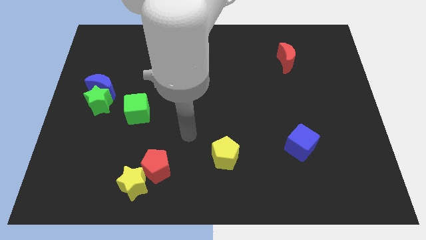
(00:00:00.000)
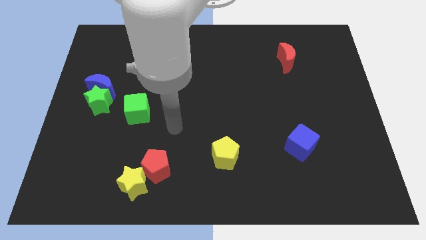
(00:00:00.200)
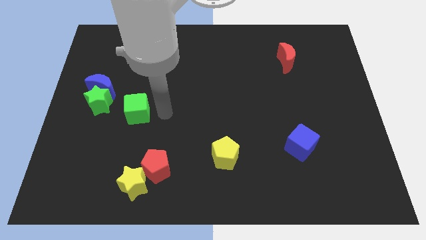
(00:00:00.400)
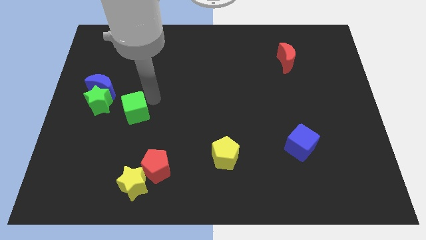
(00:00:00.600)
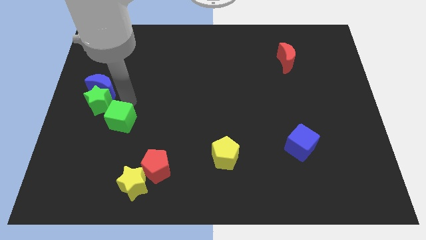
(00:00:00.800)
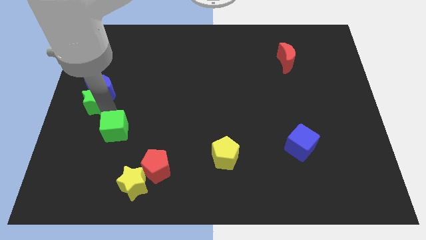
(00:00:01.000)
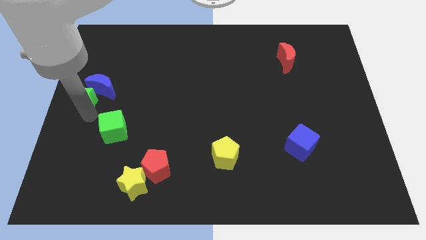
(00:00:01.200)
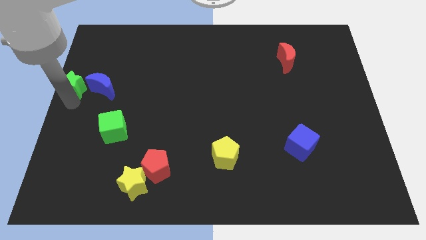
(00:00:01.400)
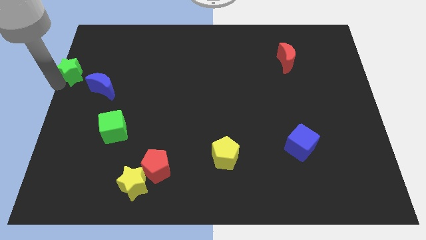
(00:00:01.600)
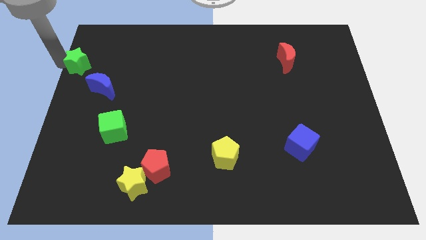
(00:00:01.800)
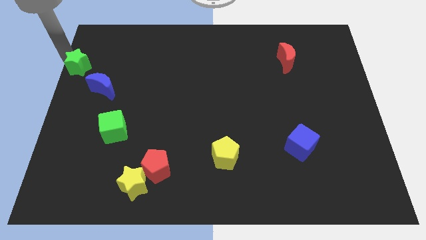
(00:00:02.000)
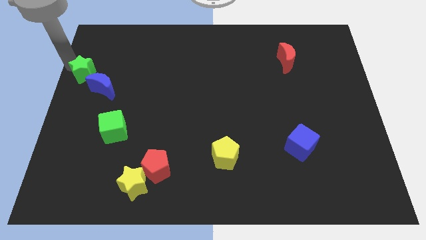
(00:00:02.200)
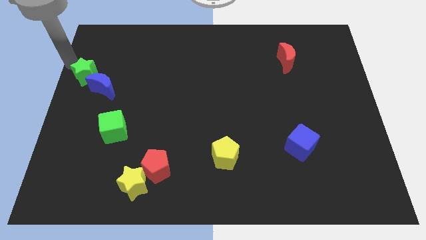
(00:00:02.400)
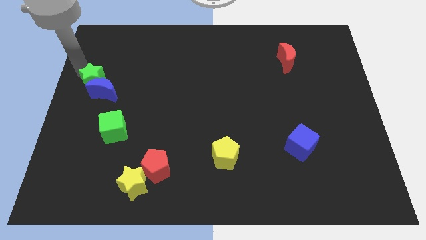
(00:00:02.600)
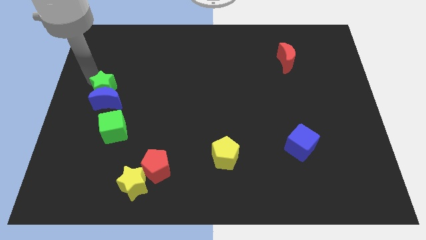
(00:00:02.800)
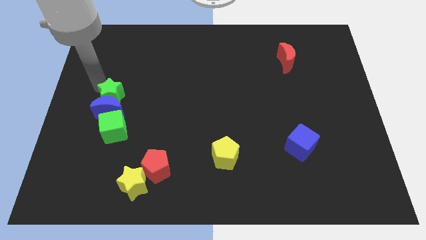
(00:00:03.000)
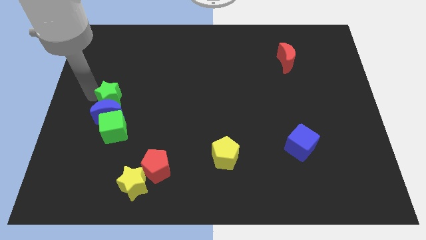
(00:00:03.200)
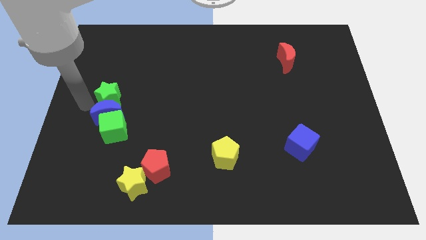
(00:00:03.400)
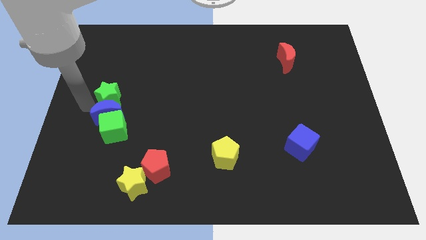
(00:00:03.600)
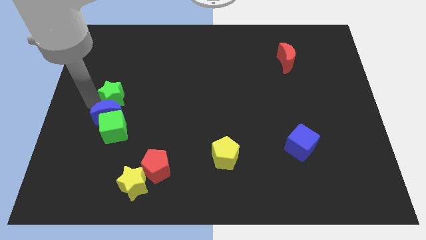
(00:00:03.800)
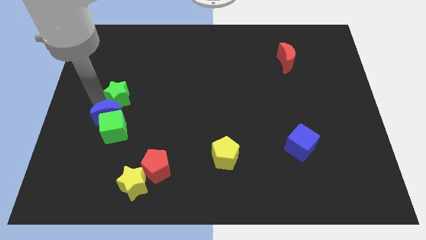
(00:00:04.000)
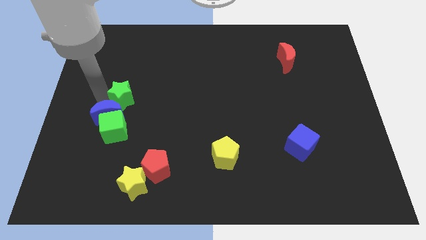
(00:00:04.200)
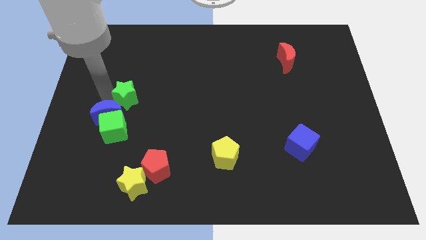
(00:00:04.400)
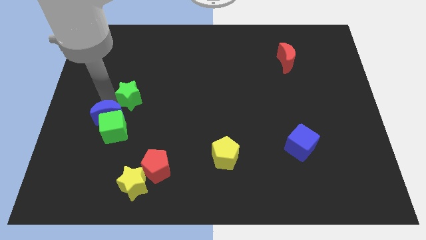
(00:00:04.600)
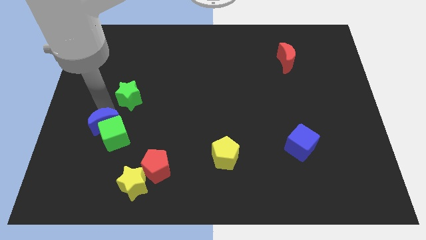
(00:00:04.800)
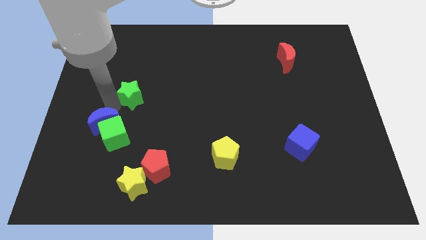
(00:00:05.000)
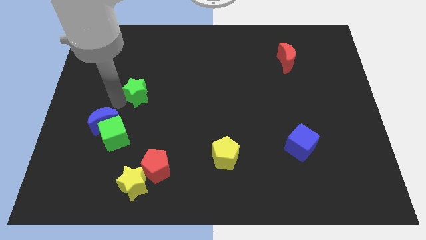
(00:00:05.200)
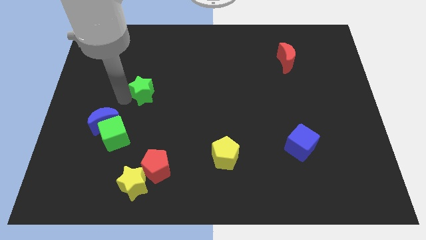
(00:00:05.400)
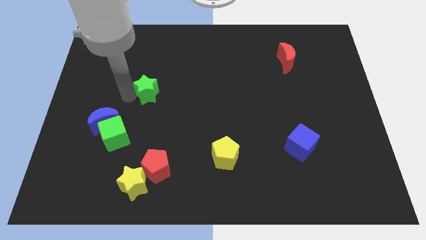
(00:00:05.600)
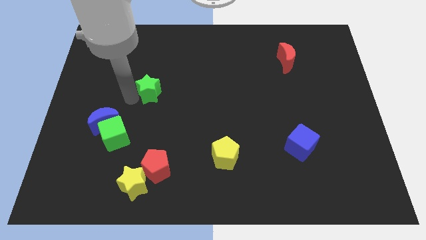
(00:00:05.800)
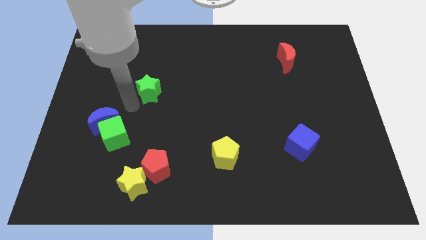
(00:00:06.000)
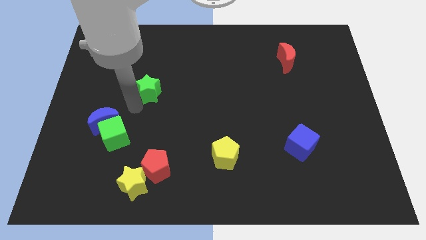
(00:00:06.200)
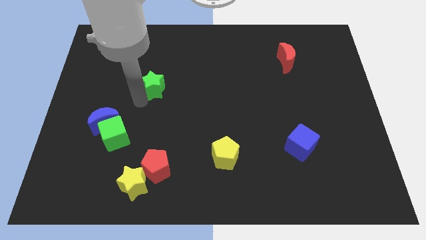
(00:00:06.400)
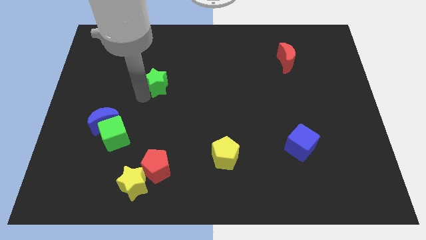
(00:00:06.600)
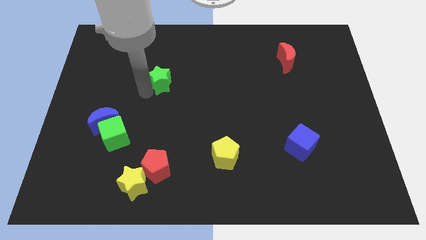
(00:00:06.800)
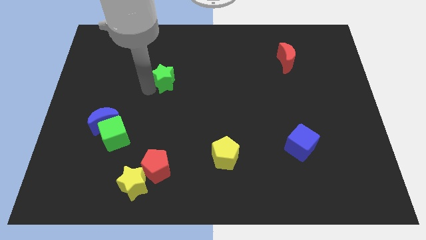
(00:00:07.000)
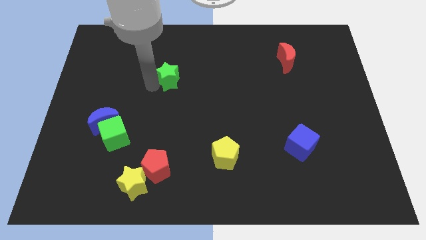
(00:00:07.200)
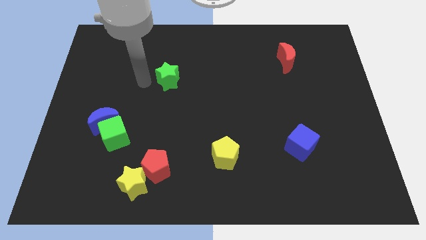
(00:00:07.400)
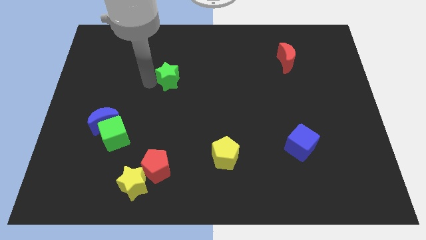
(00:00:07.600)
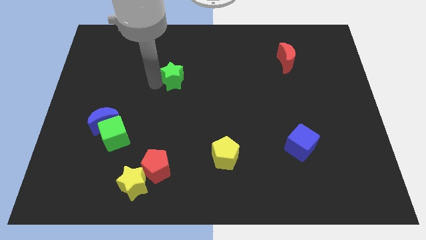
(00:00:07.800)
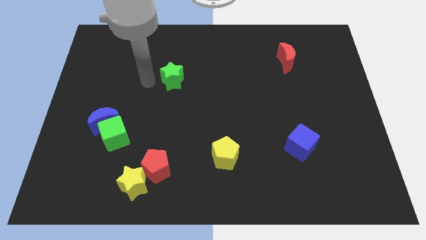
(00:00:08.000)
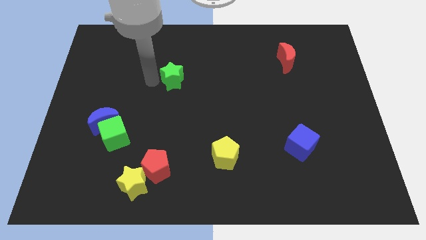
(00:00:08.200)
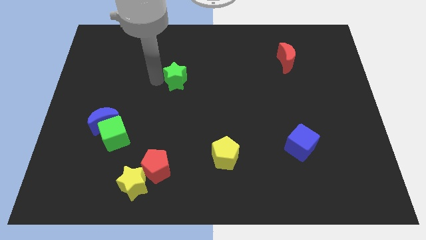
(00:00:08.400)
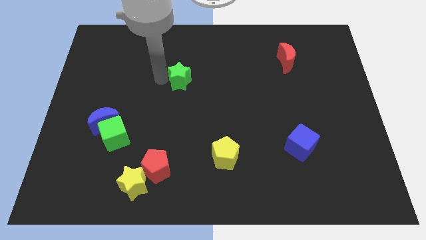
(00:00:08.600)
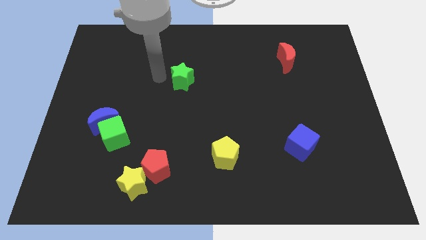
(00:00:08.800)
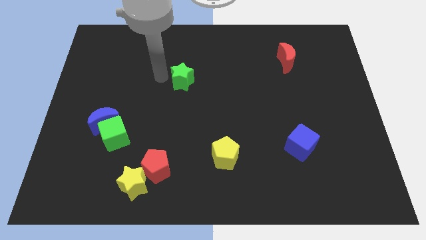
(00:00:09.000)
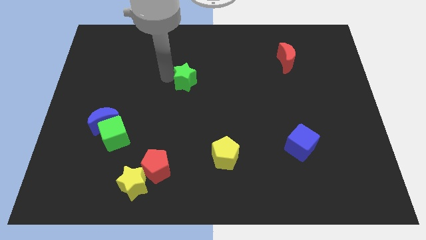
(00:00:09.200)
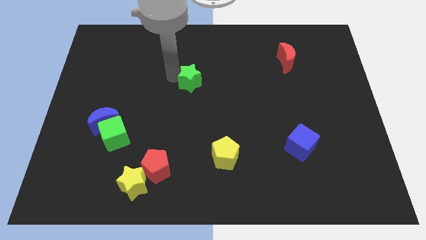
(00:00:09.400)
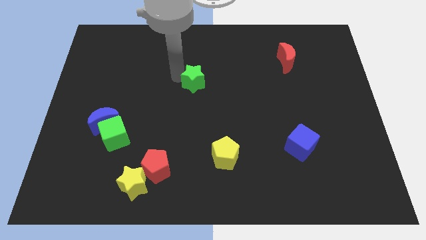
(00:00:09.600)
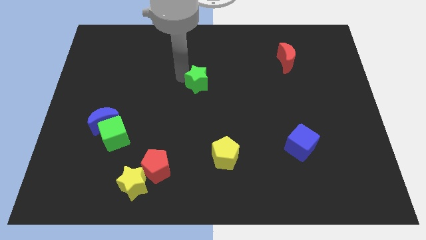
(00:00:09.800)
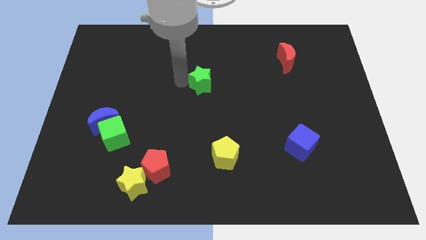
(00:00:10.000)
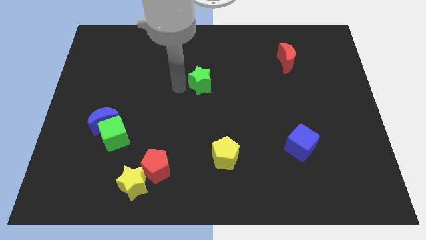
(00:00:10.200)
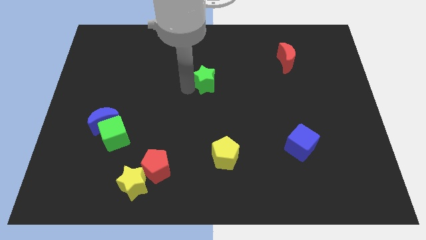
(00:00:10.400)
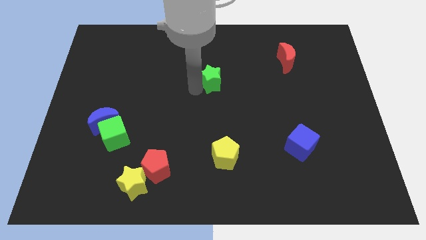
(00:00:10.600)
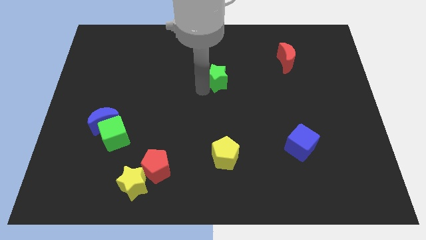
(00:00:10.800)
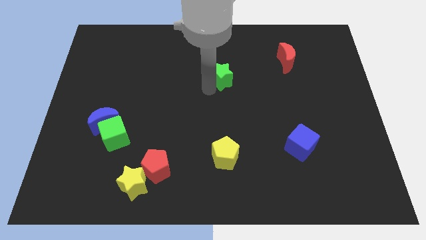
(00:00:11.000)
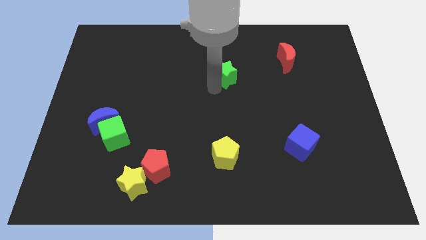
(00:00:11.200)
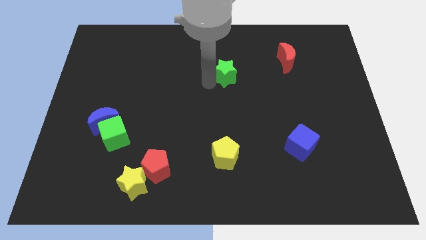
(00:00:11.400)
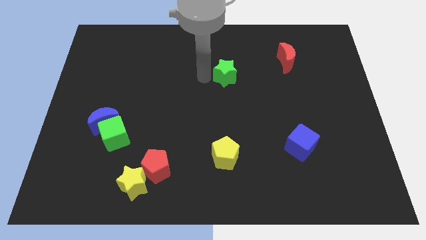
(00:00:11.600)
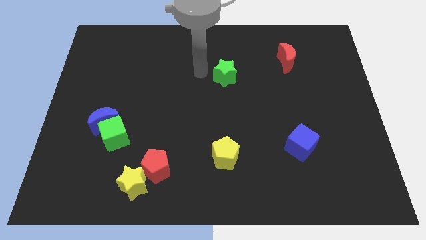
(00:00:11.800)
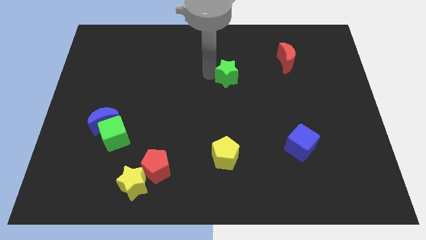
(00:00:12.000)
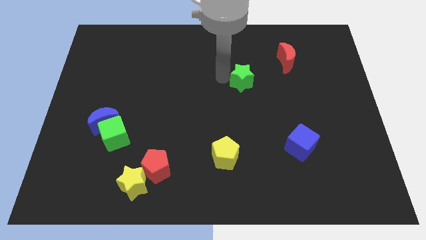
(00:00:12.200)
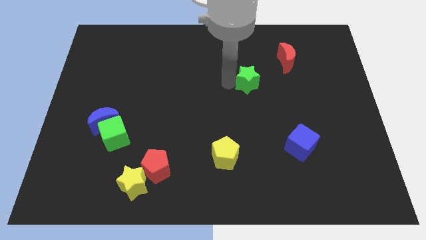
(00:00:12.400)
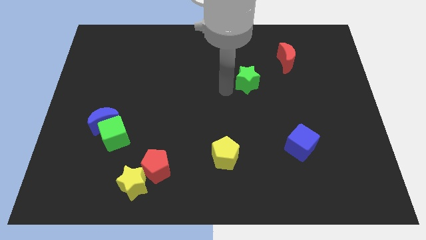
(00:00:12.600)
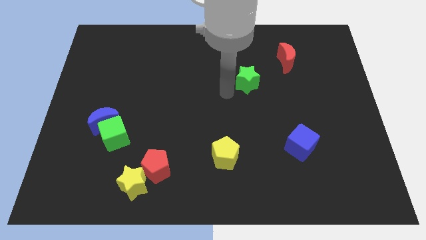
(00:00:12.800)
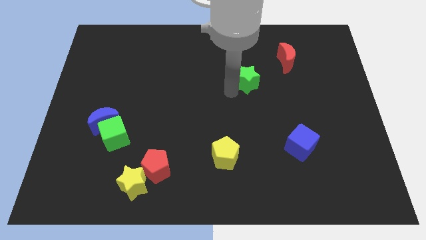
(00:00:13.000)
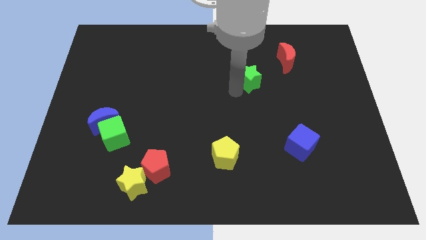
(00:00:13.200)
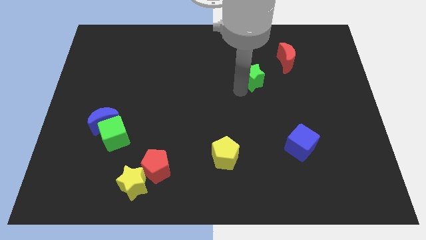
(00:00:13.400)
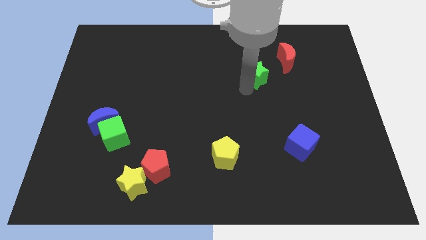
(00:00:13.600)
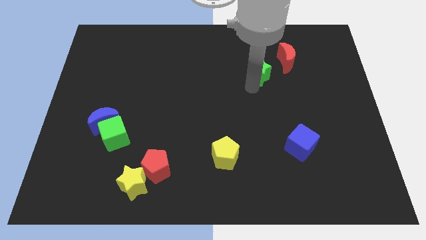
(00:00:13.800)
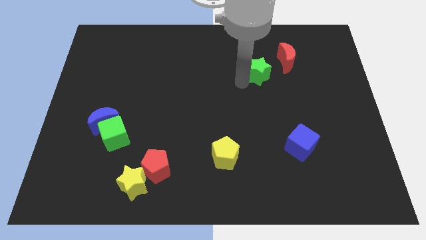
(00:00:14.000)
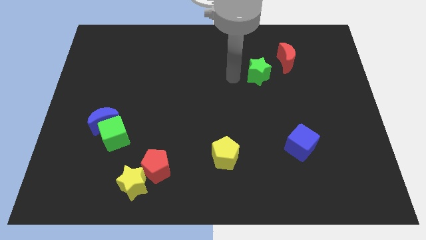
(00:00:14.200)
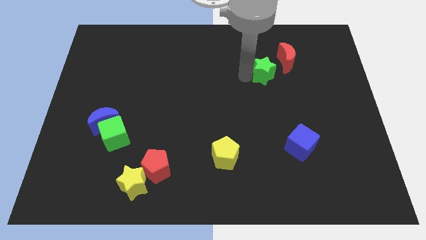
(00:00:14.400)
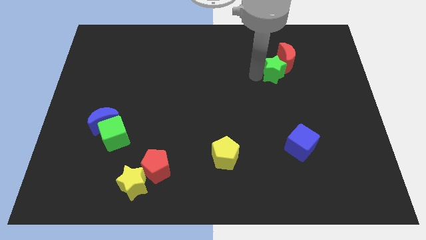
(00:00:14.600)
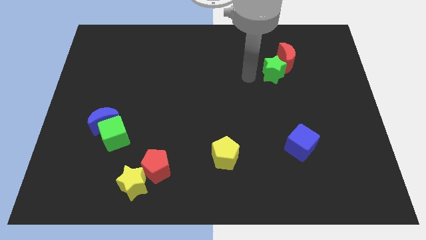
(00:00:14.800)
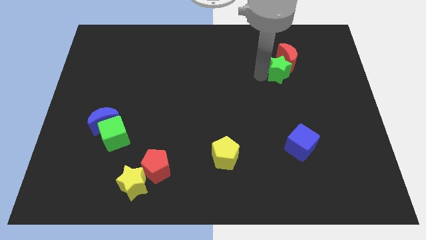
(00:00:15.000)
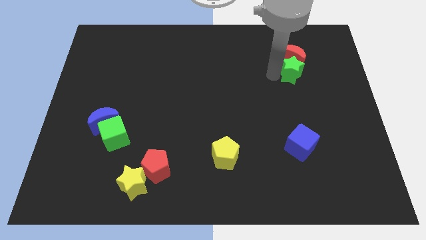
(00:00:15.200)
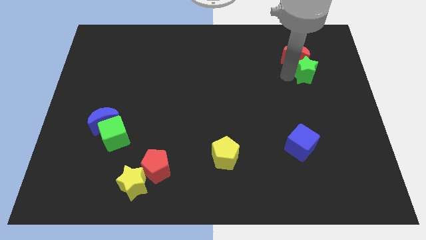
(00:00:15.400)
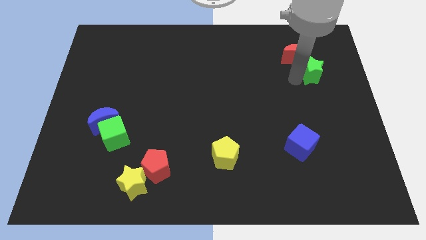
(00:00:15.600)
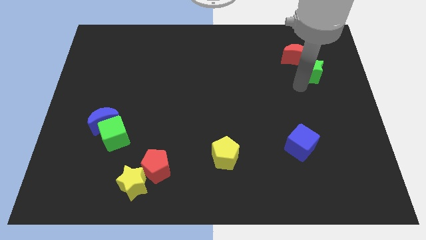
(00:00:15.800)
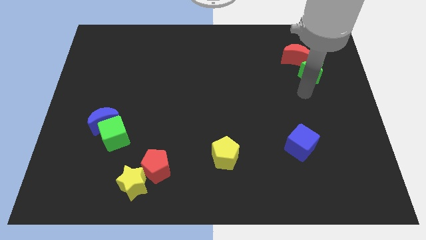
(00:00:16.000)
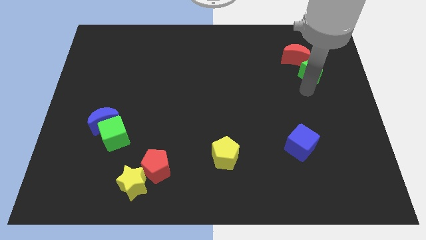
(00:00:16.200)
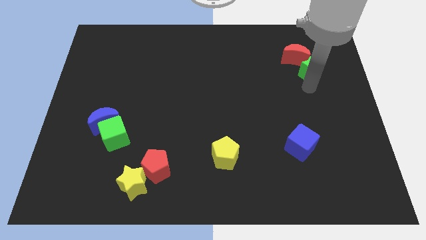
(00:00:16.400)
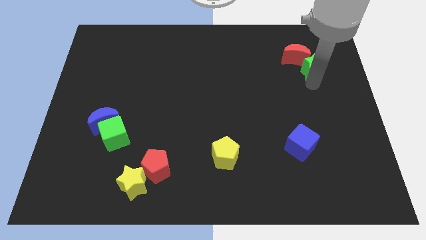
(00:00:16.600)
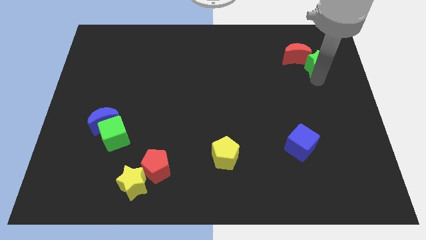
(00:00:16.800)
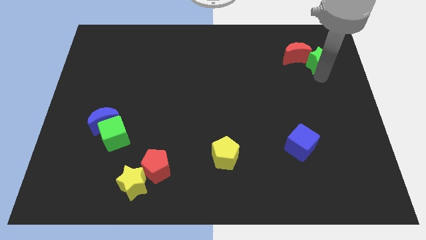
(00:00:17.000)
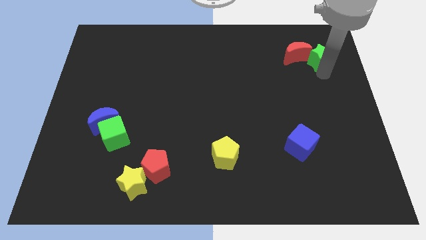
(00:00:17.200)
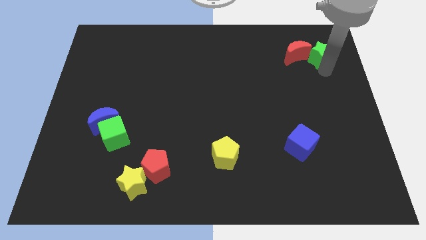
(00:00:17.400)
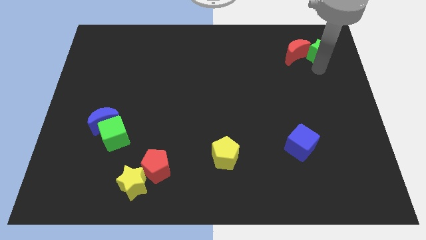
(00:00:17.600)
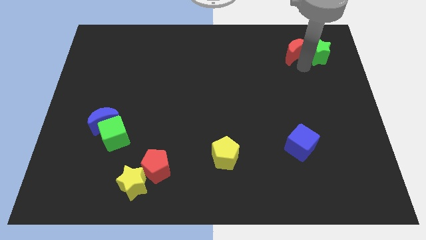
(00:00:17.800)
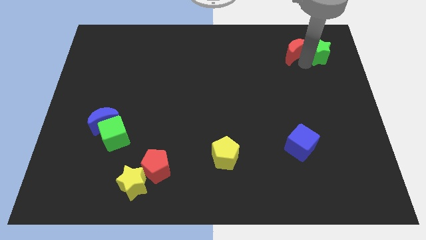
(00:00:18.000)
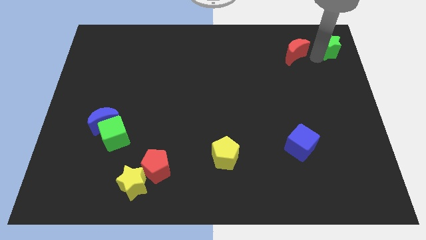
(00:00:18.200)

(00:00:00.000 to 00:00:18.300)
slide the green star to the top right
